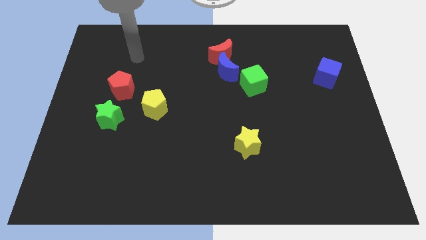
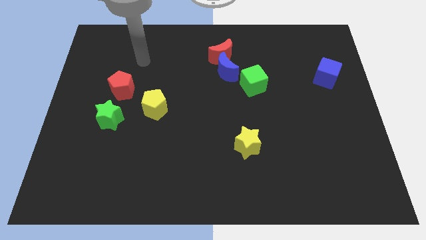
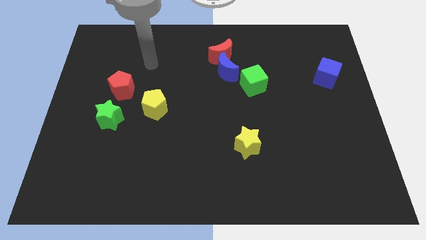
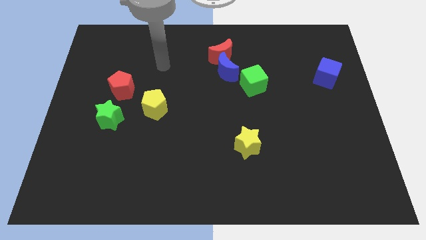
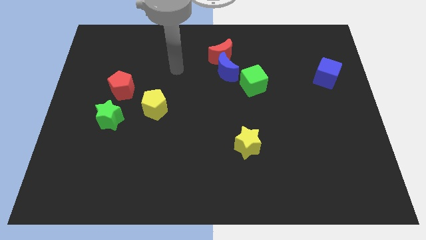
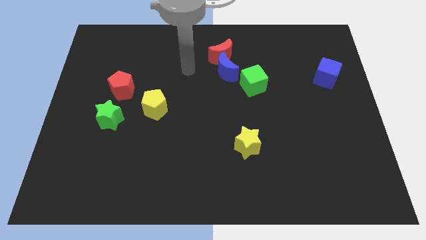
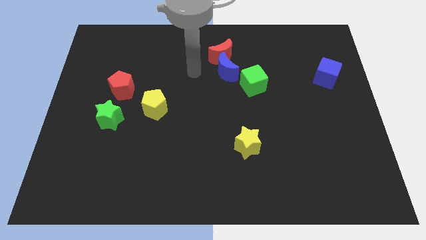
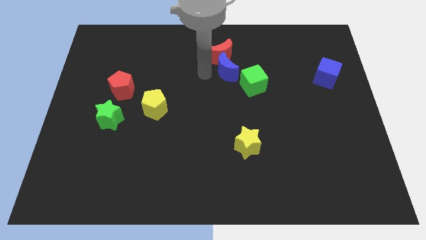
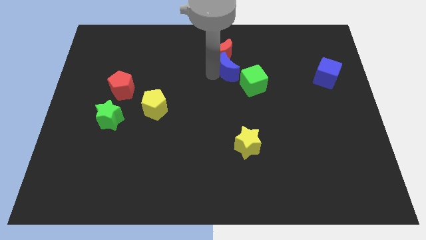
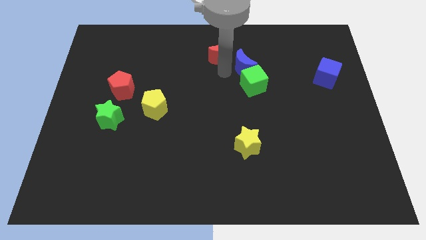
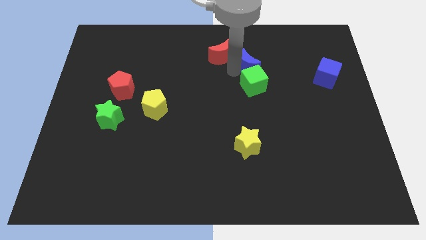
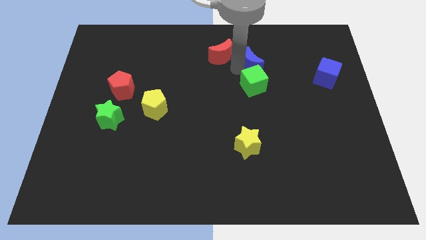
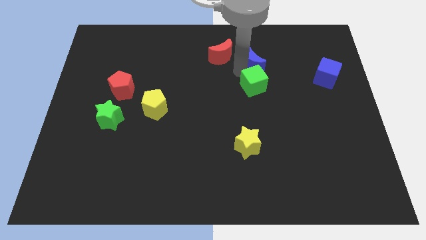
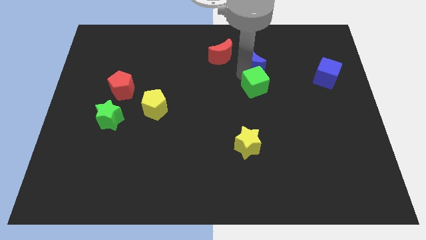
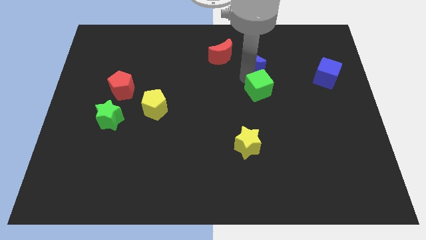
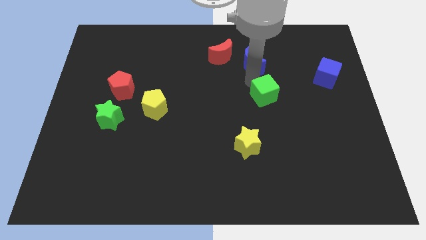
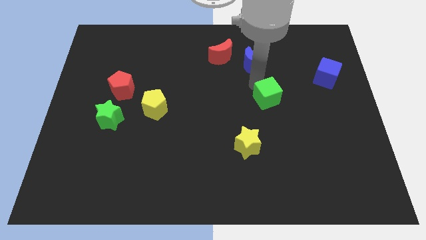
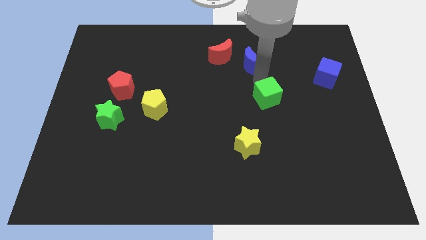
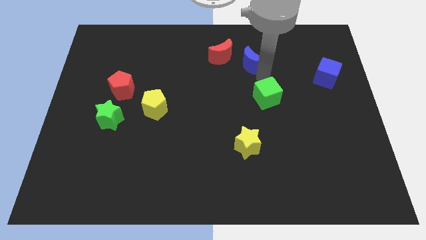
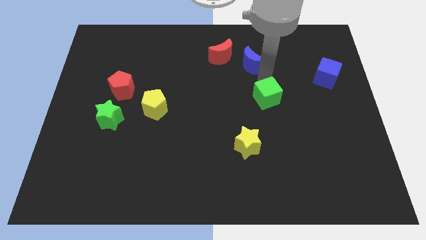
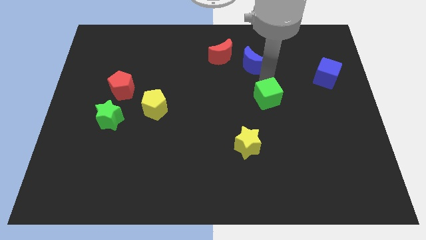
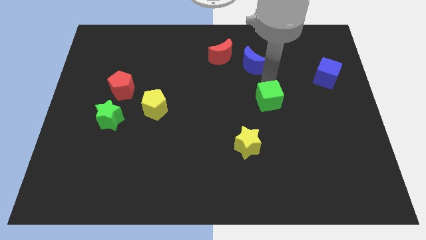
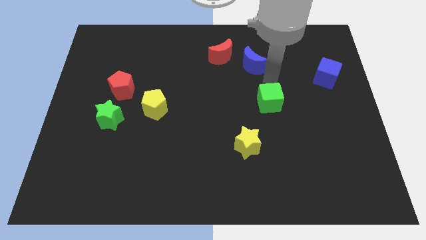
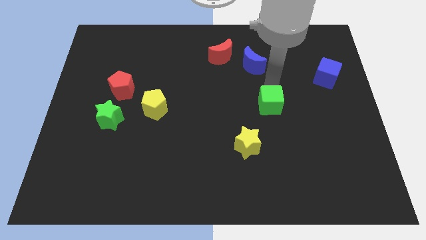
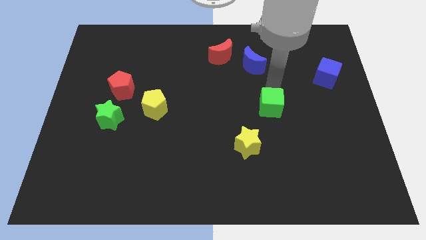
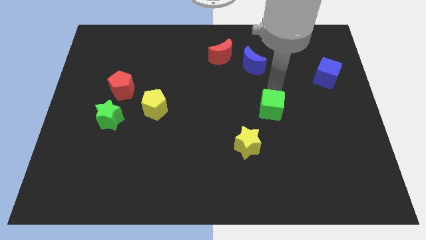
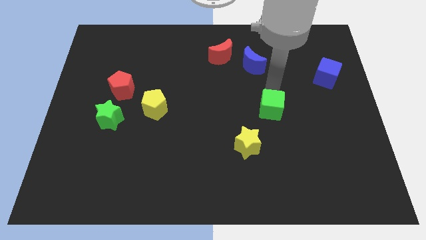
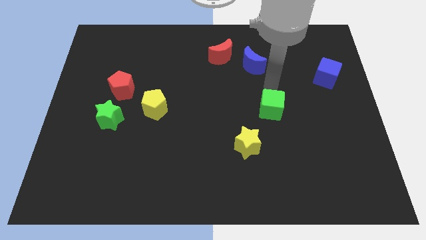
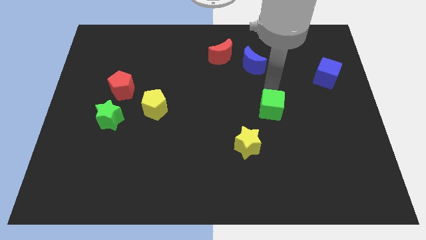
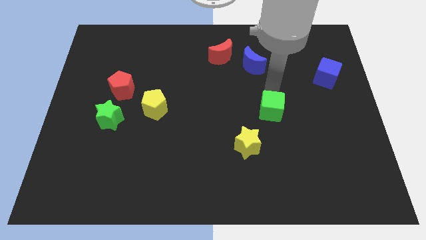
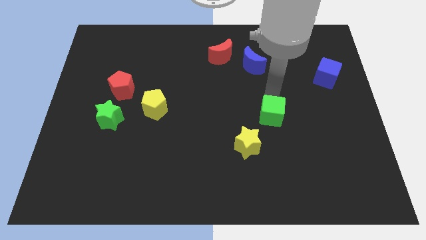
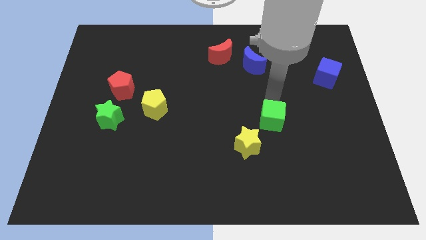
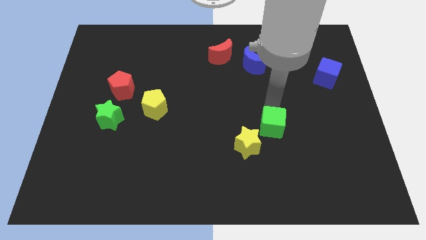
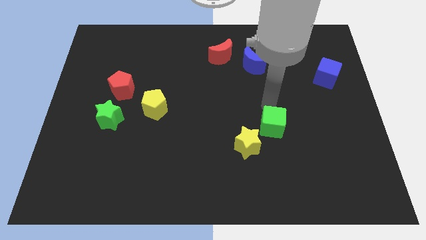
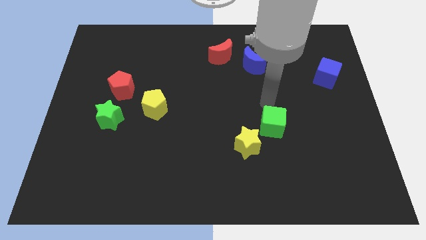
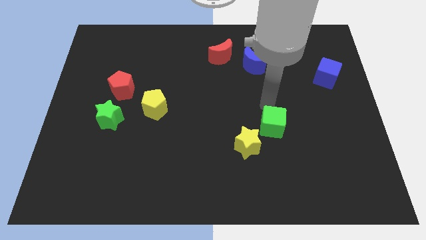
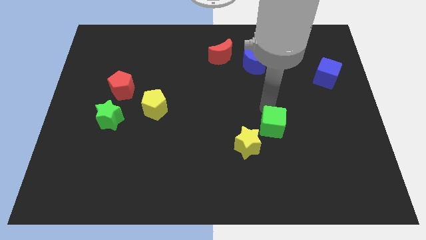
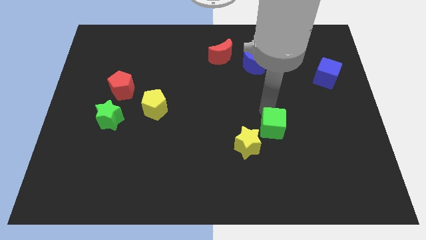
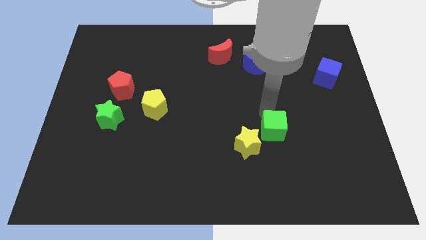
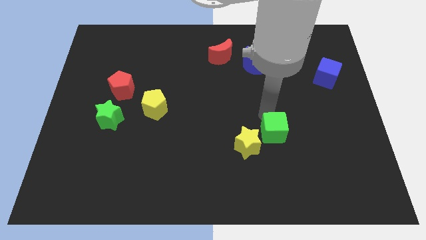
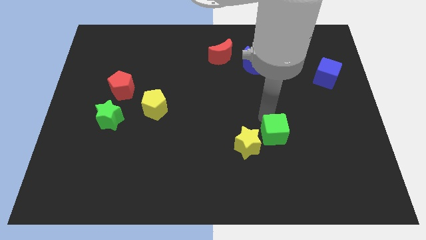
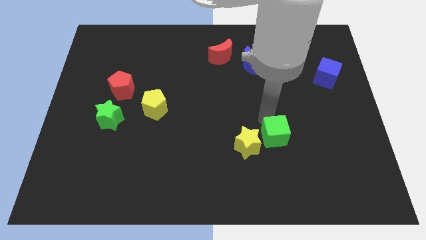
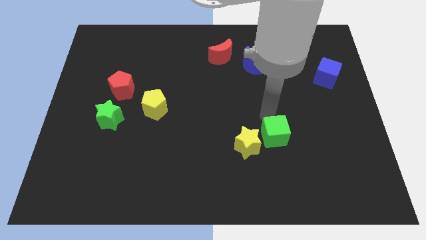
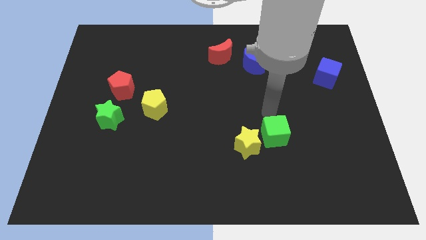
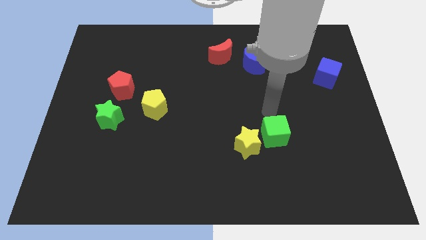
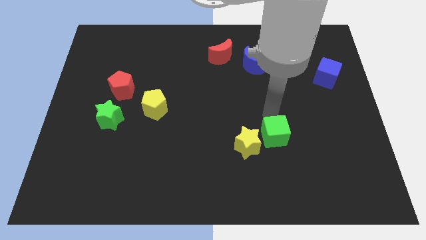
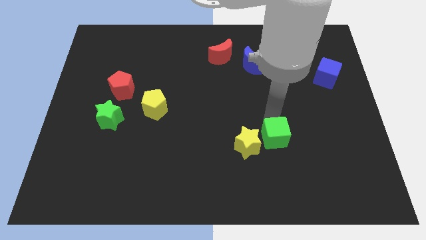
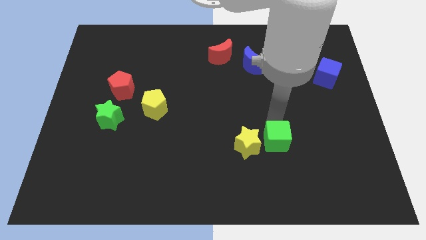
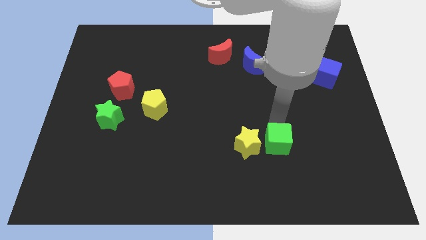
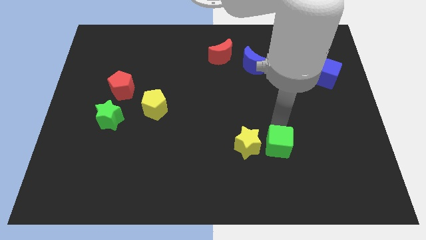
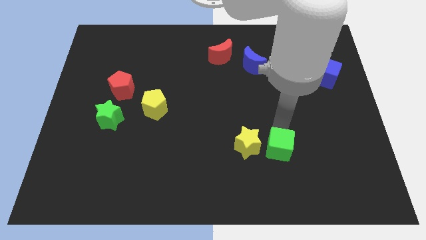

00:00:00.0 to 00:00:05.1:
slide the green cube diagonally down and to the right of the yellow star

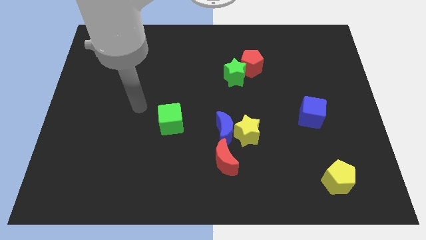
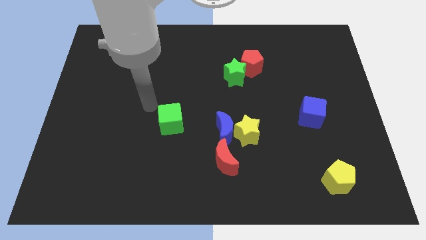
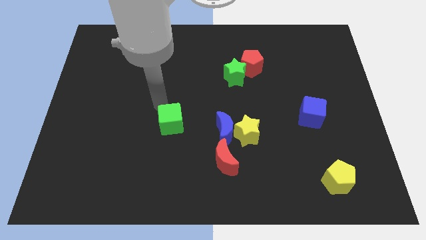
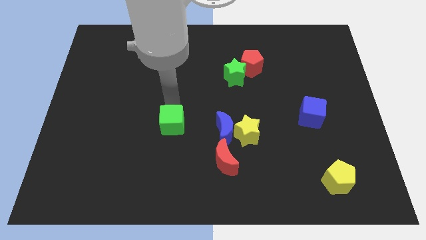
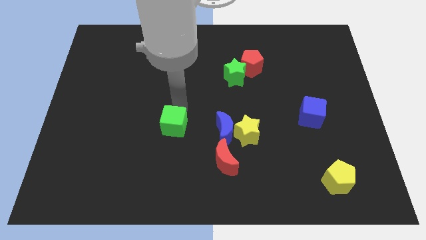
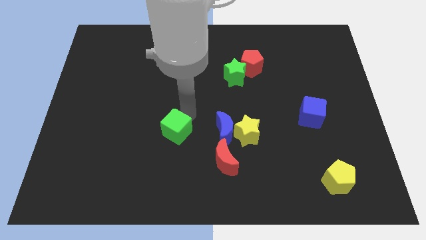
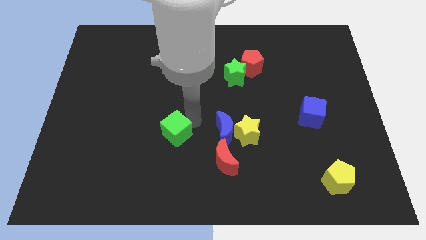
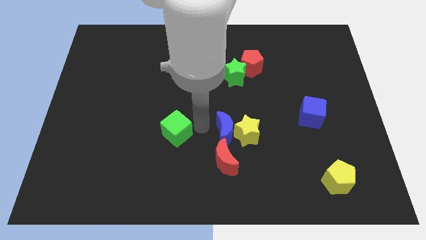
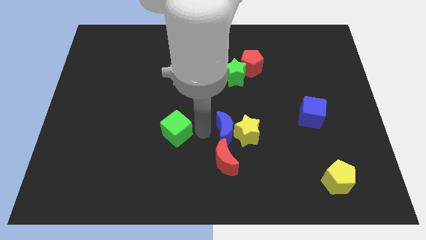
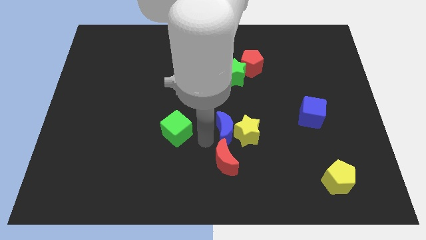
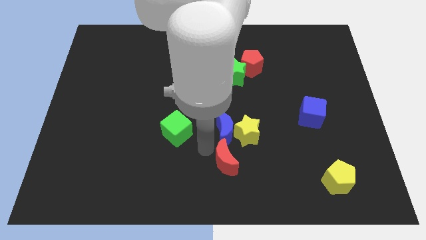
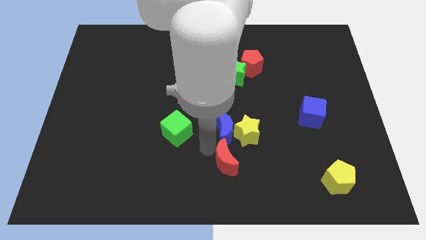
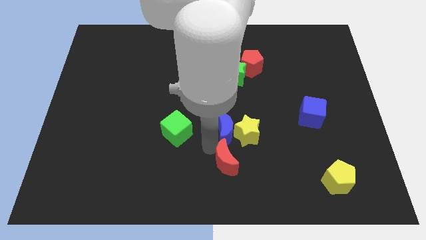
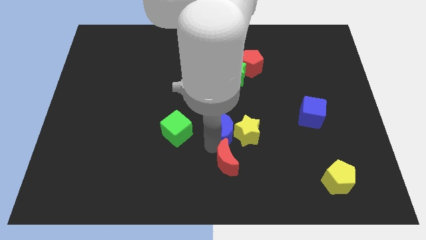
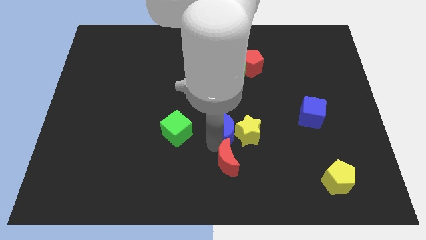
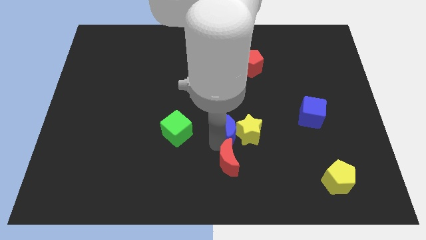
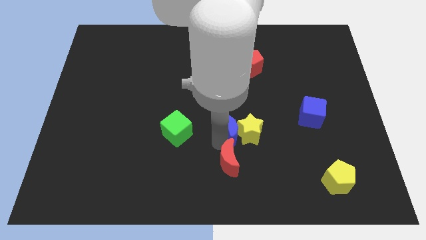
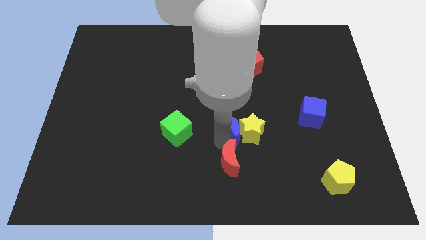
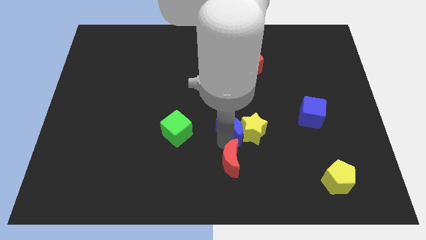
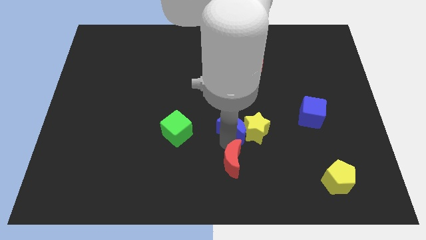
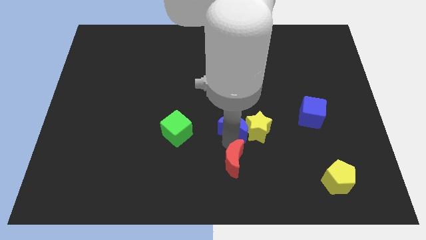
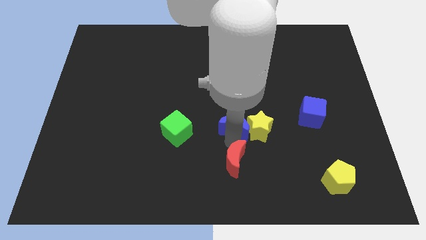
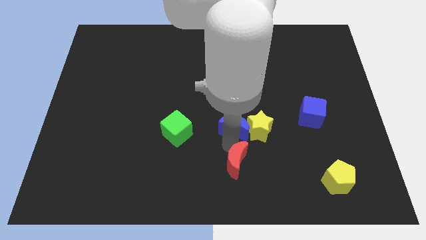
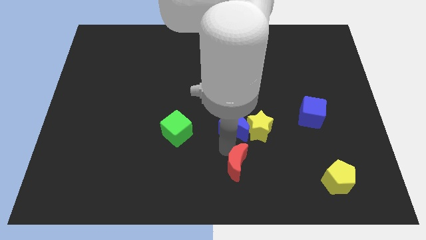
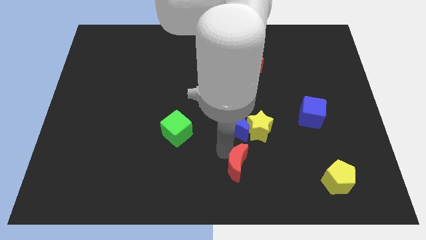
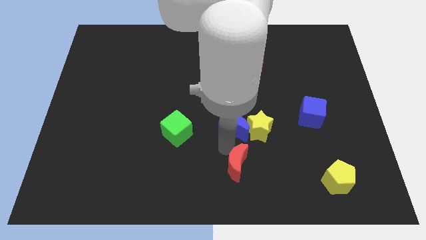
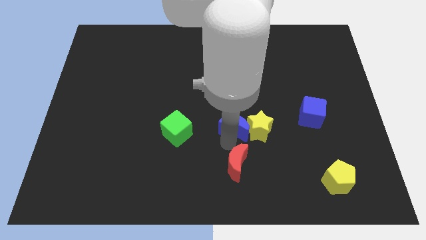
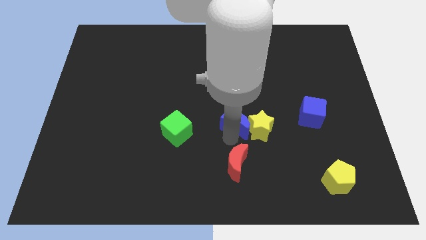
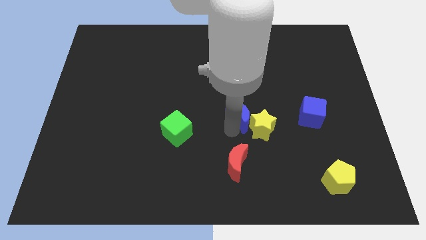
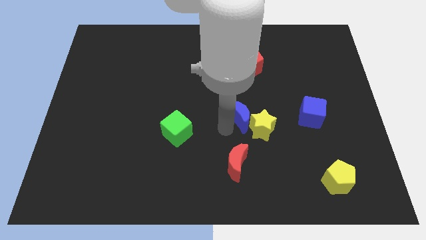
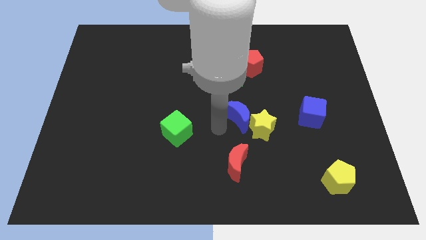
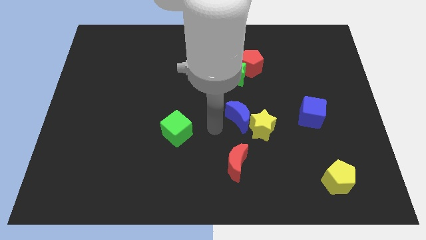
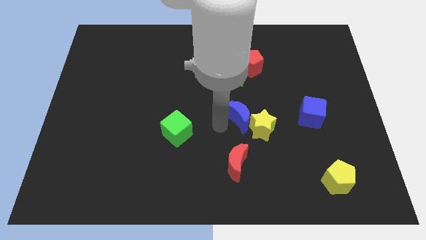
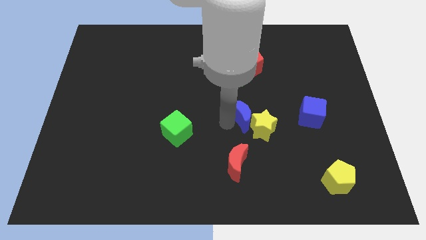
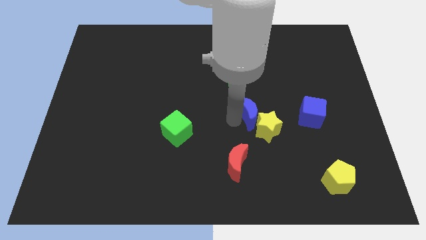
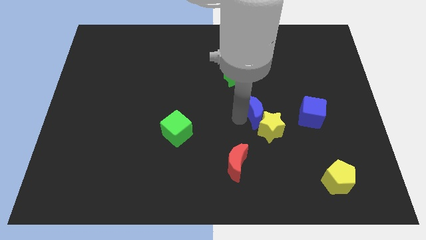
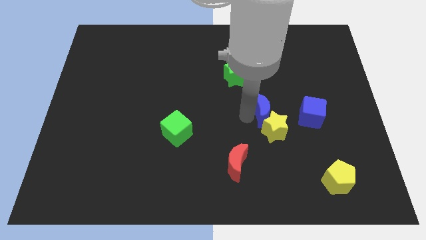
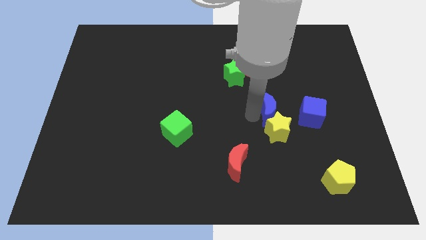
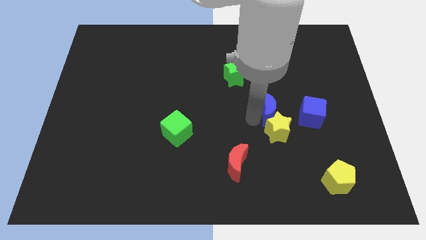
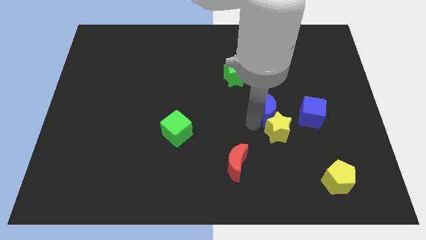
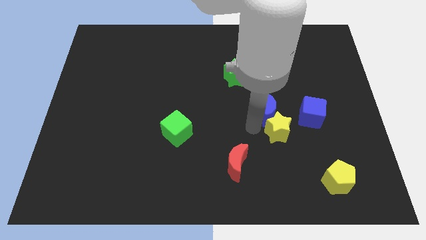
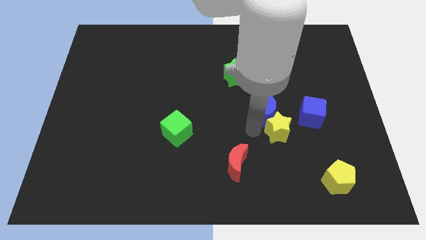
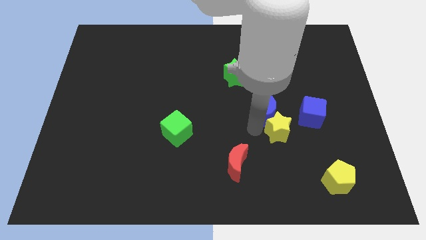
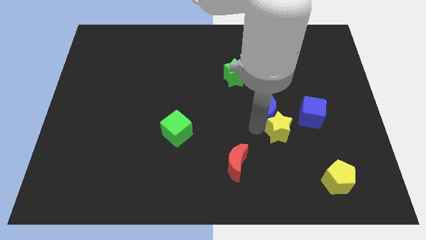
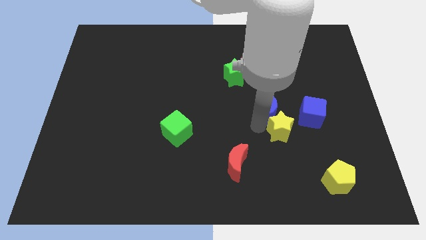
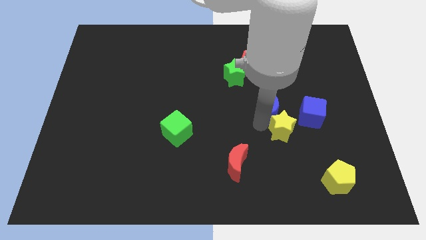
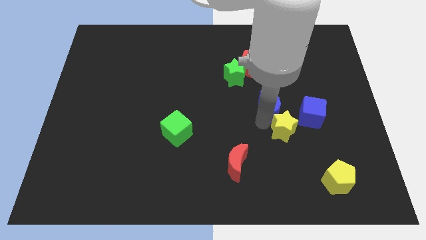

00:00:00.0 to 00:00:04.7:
push the blue moon to the top left side of the blue cube
